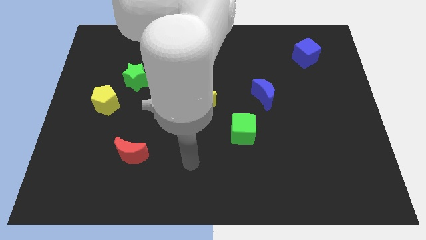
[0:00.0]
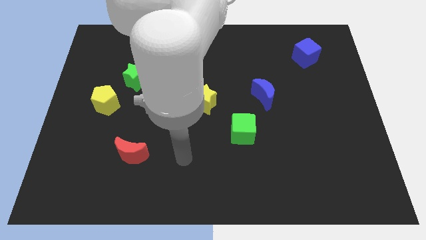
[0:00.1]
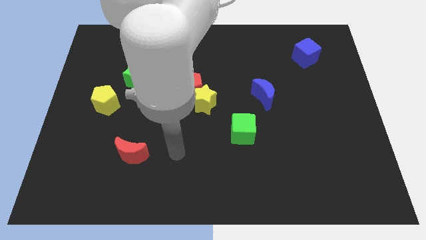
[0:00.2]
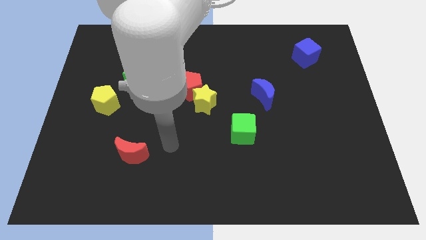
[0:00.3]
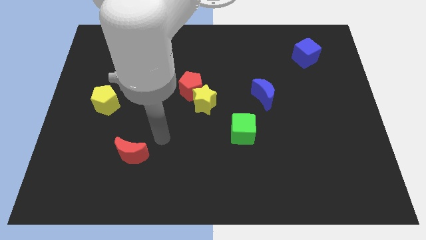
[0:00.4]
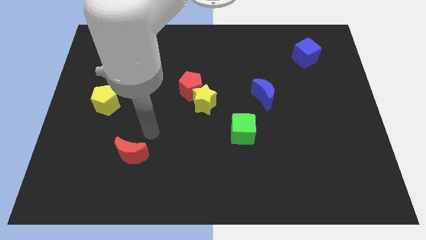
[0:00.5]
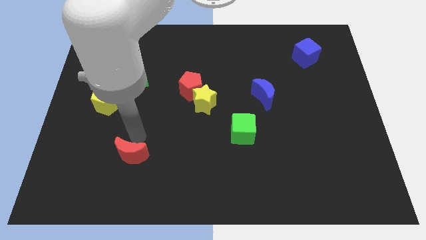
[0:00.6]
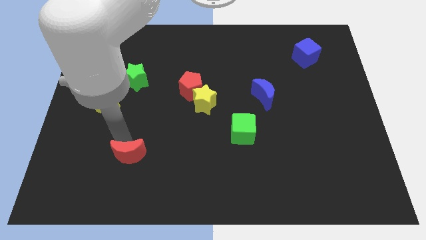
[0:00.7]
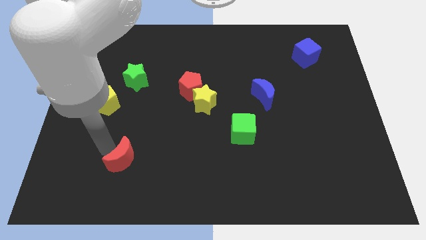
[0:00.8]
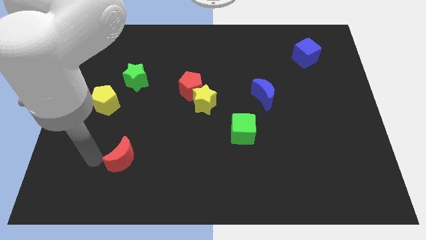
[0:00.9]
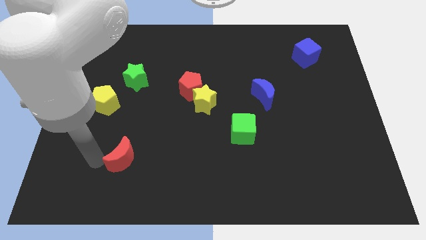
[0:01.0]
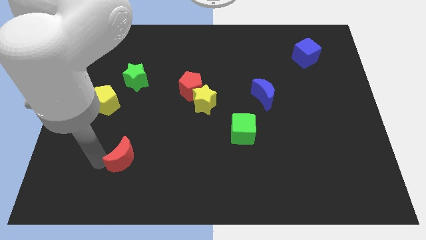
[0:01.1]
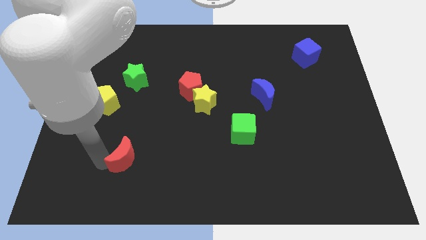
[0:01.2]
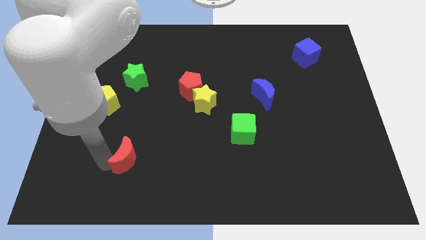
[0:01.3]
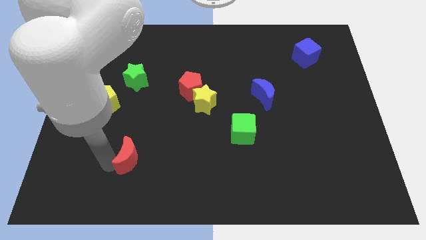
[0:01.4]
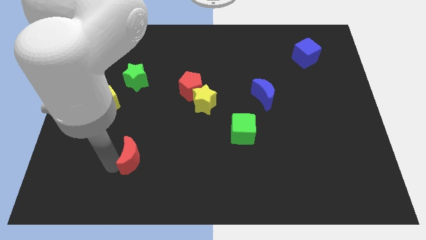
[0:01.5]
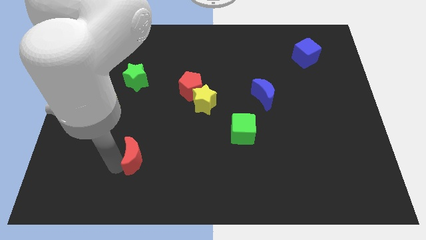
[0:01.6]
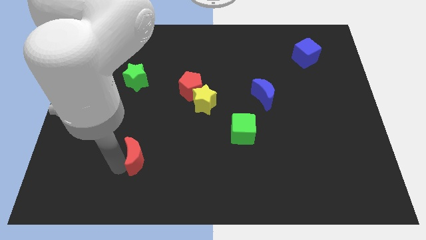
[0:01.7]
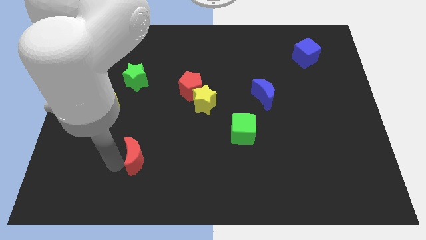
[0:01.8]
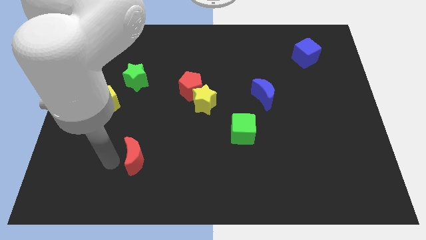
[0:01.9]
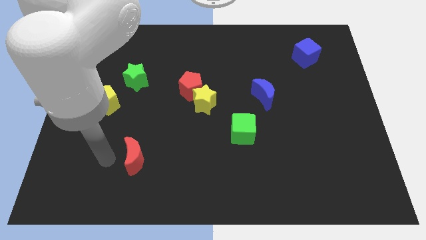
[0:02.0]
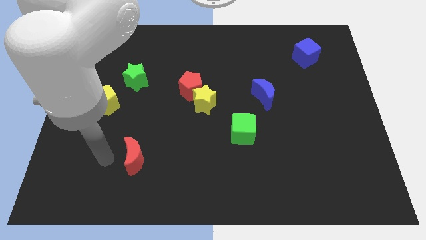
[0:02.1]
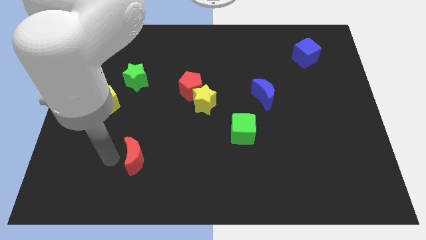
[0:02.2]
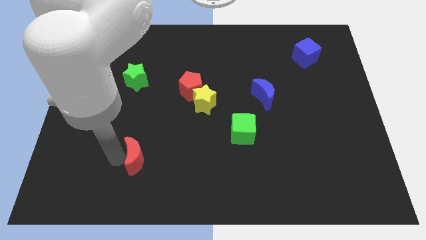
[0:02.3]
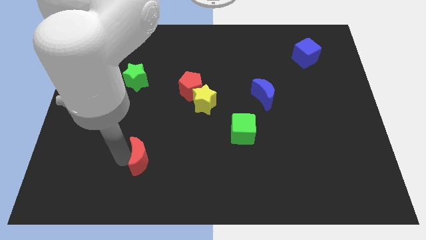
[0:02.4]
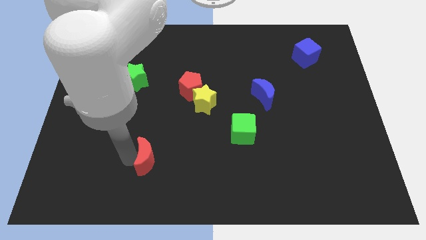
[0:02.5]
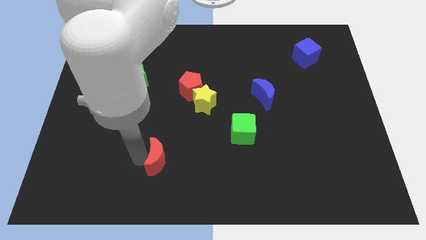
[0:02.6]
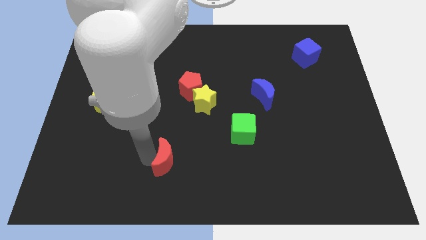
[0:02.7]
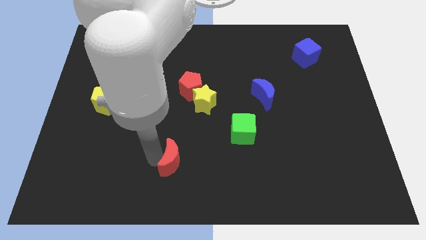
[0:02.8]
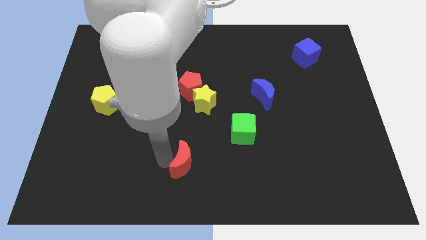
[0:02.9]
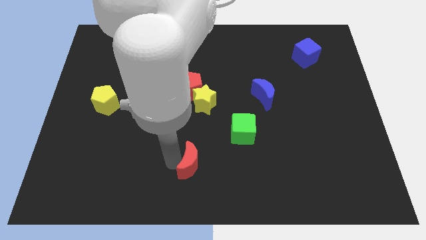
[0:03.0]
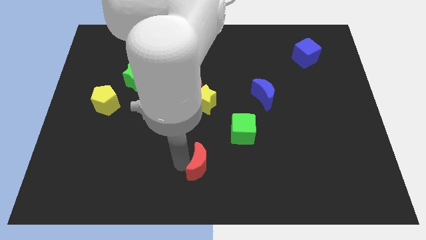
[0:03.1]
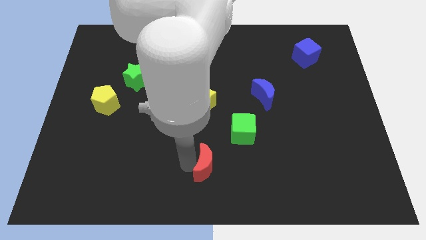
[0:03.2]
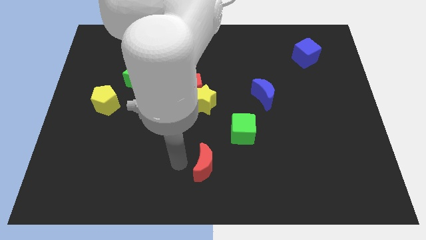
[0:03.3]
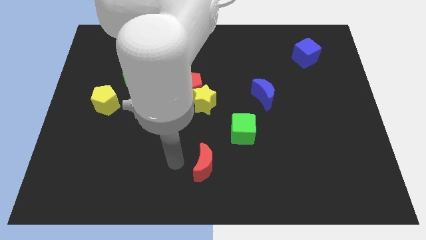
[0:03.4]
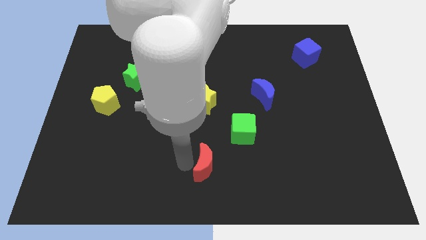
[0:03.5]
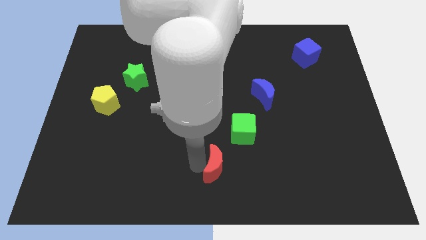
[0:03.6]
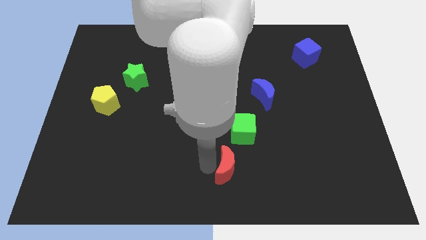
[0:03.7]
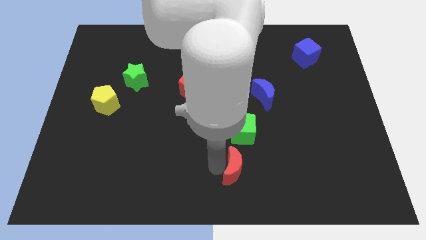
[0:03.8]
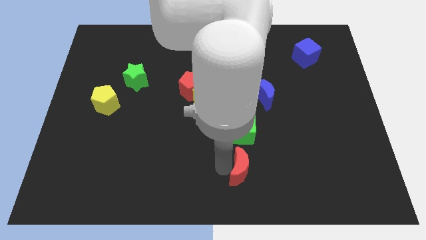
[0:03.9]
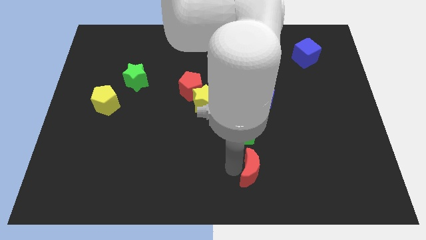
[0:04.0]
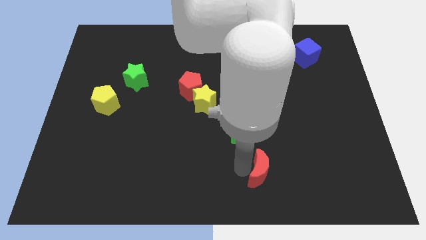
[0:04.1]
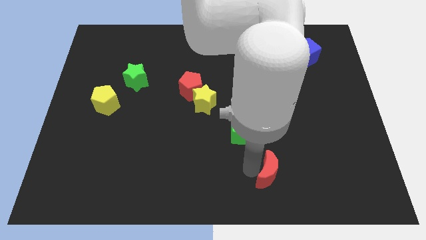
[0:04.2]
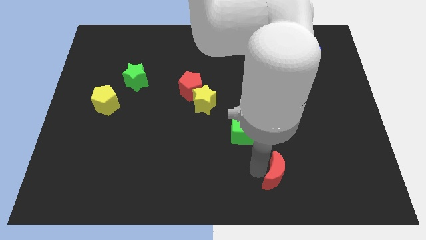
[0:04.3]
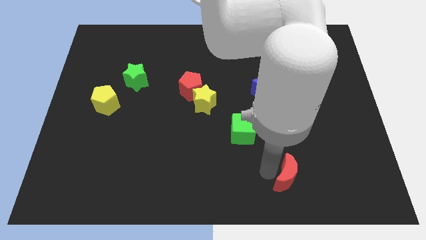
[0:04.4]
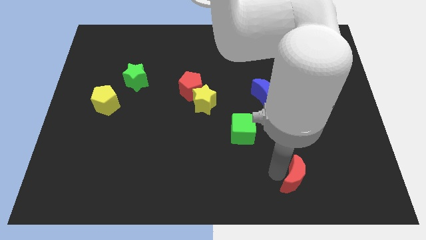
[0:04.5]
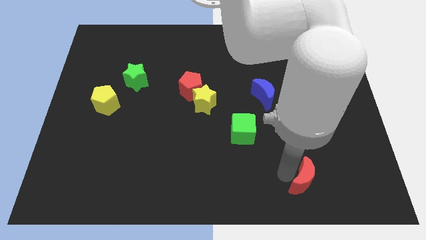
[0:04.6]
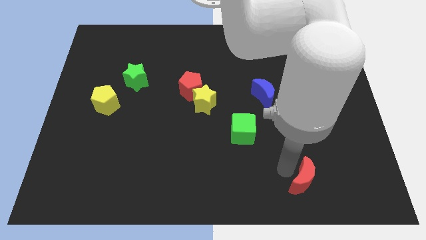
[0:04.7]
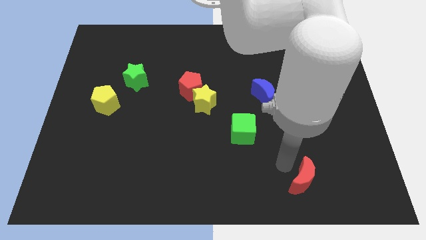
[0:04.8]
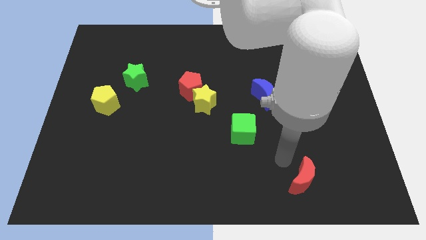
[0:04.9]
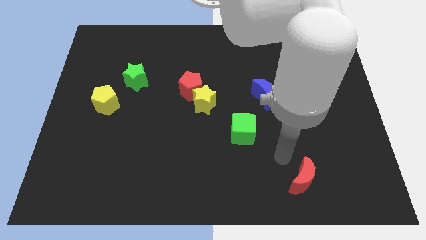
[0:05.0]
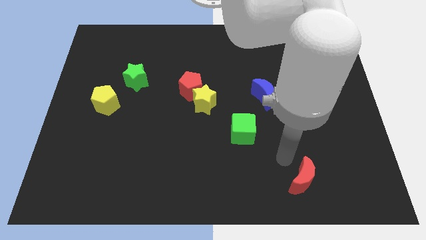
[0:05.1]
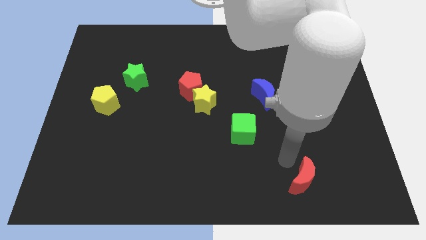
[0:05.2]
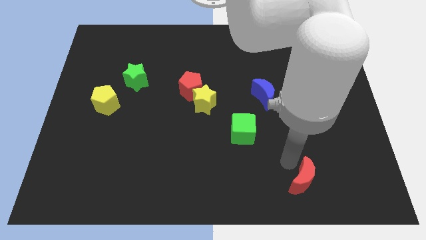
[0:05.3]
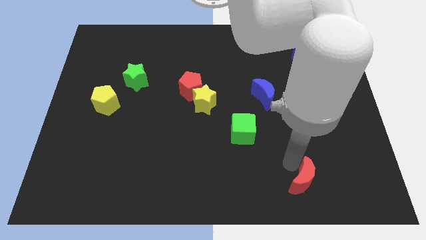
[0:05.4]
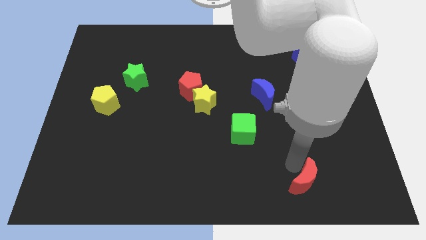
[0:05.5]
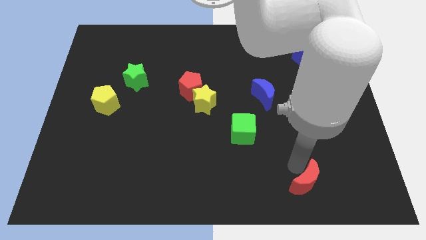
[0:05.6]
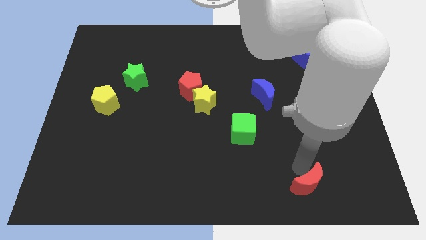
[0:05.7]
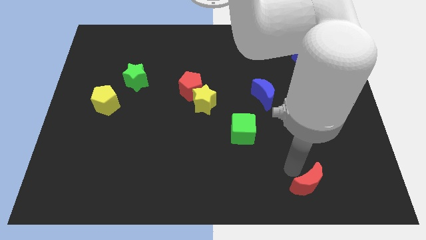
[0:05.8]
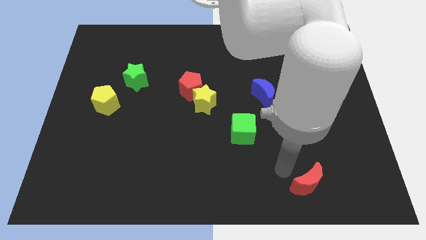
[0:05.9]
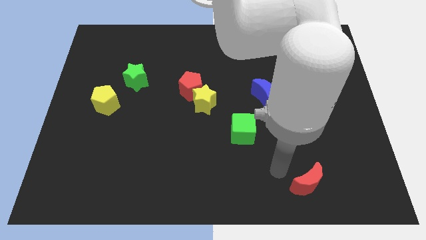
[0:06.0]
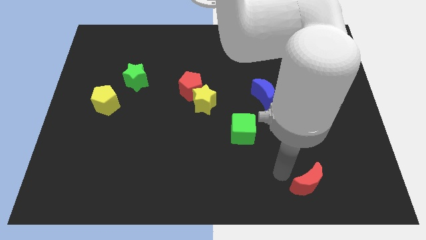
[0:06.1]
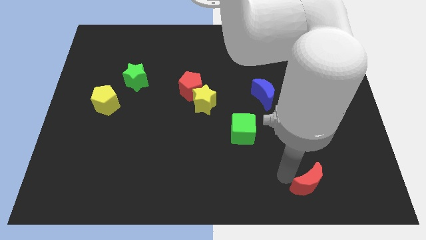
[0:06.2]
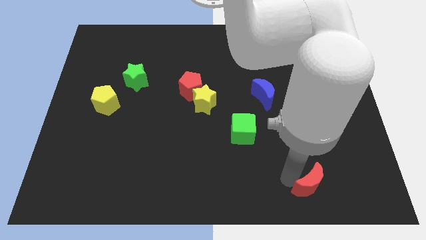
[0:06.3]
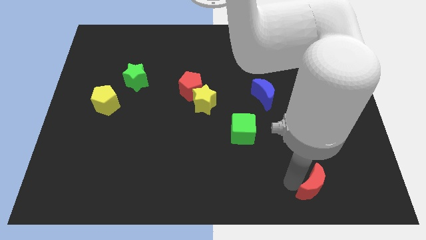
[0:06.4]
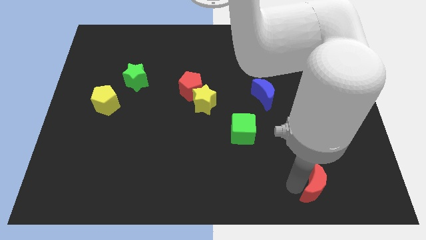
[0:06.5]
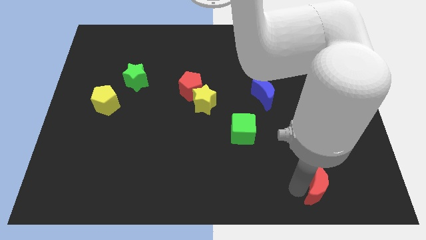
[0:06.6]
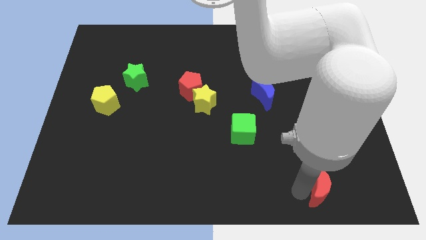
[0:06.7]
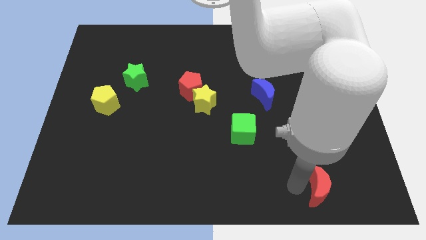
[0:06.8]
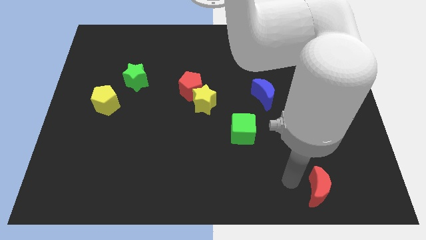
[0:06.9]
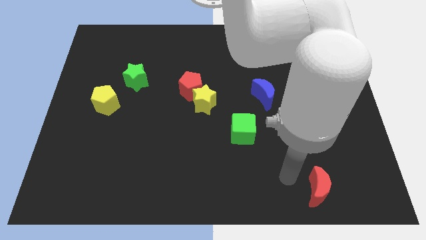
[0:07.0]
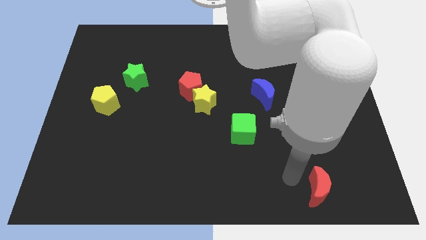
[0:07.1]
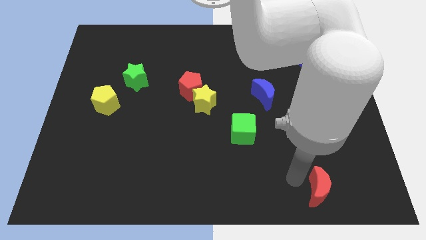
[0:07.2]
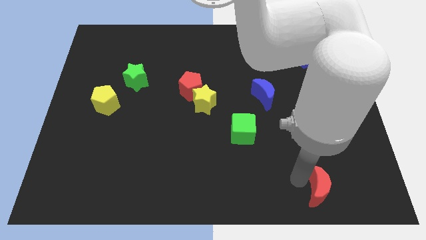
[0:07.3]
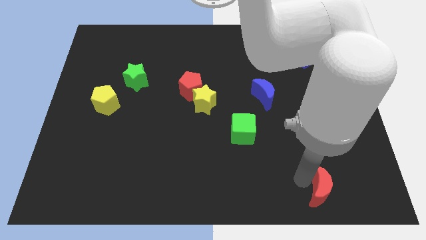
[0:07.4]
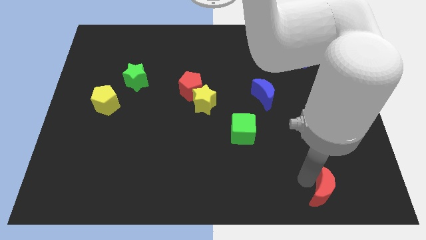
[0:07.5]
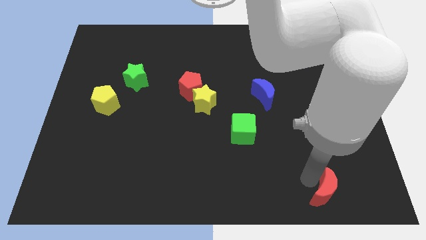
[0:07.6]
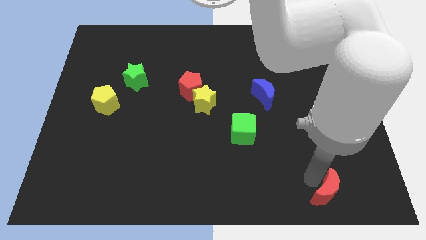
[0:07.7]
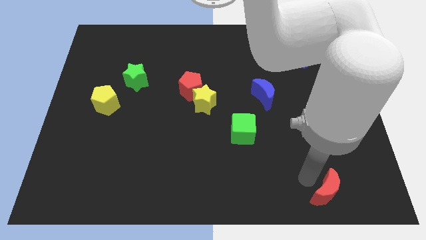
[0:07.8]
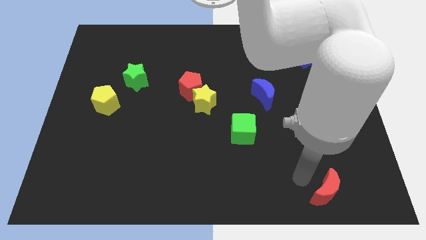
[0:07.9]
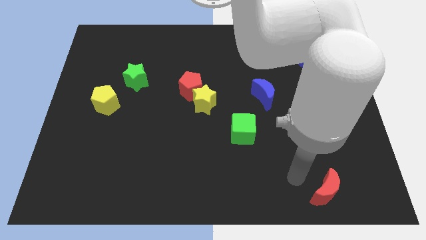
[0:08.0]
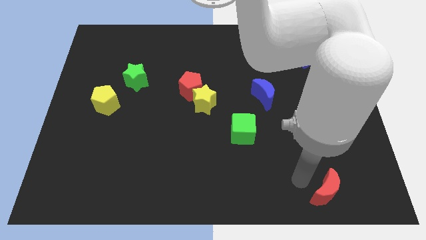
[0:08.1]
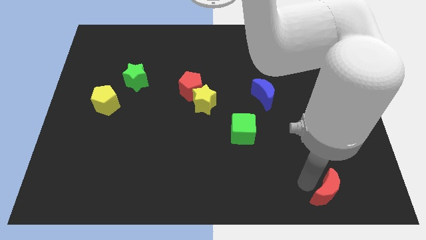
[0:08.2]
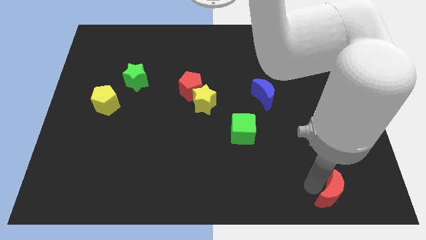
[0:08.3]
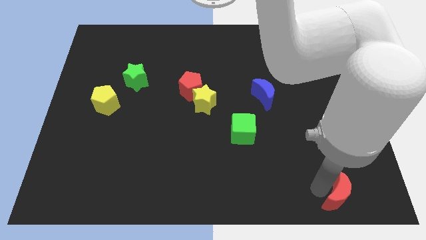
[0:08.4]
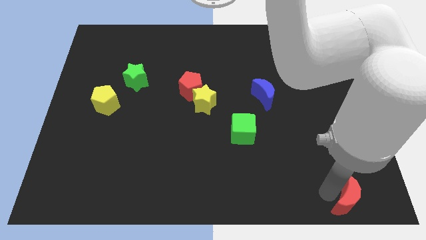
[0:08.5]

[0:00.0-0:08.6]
push the red moon to the lower right corner
